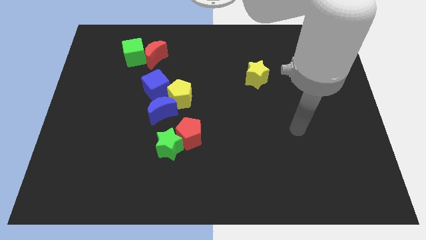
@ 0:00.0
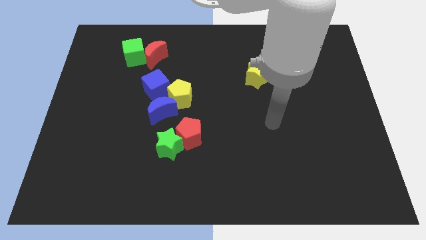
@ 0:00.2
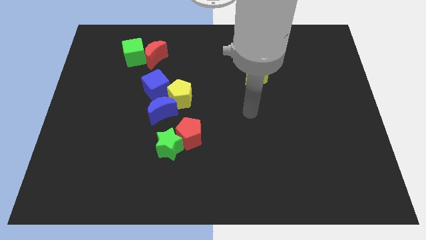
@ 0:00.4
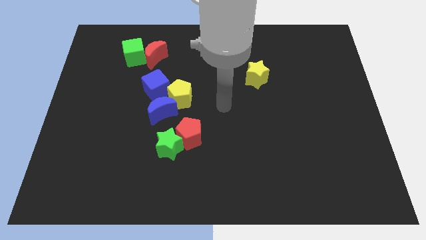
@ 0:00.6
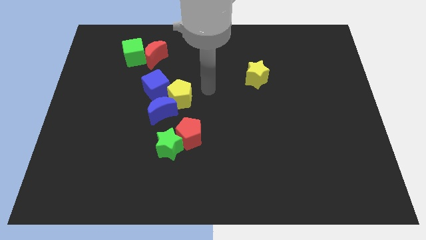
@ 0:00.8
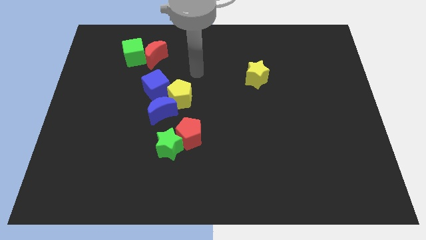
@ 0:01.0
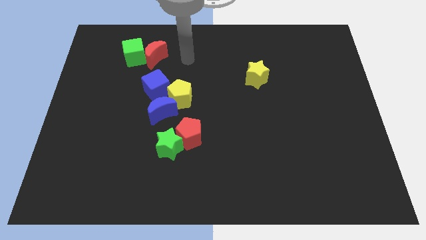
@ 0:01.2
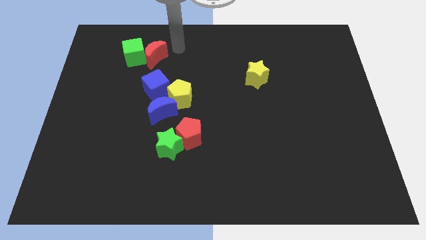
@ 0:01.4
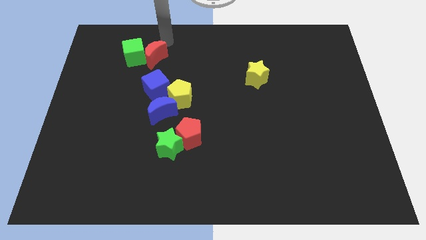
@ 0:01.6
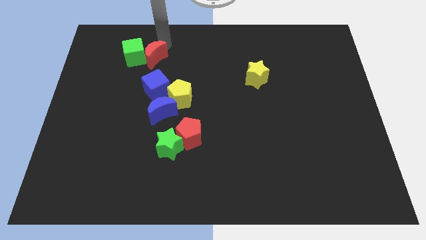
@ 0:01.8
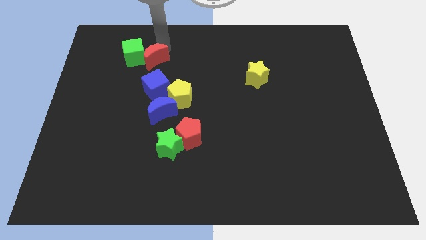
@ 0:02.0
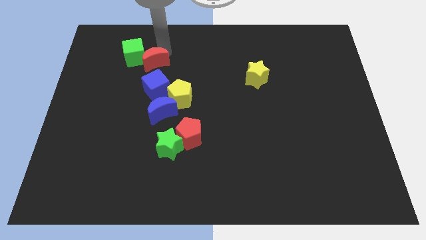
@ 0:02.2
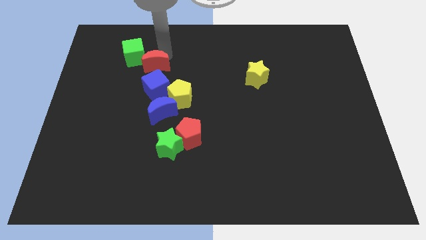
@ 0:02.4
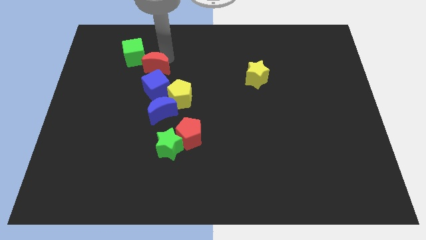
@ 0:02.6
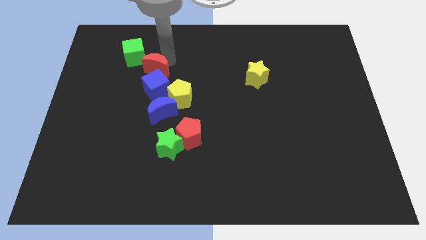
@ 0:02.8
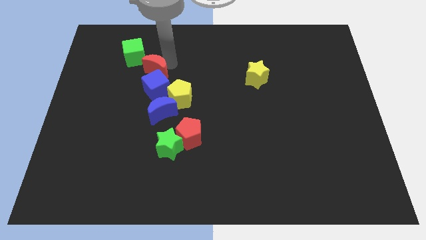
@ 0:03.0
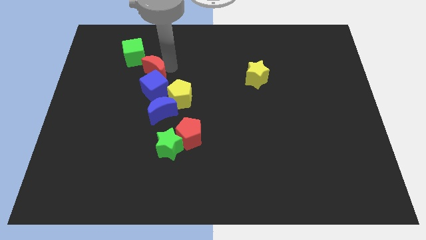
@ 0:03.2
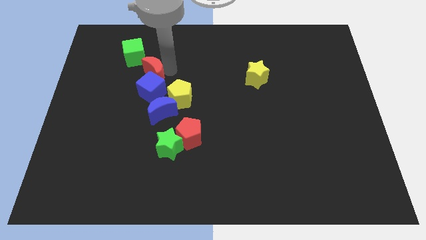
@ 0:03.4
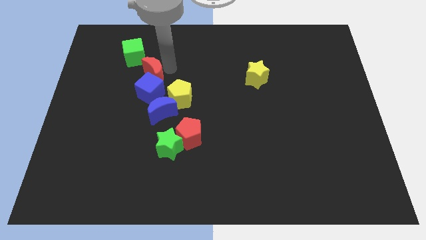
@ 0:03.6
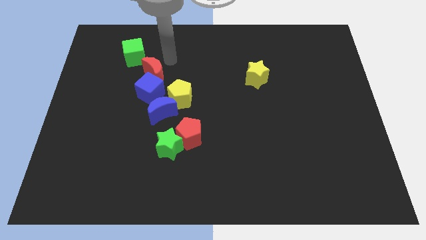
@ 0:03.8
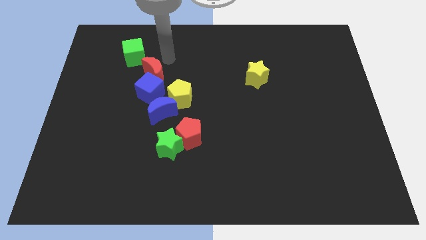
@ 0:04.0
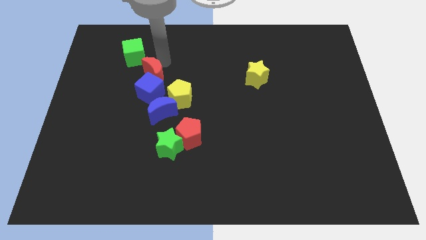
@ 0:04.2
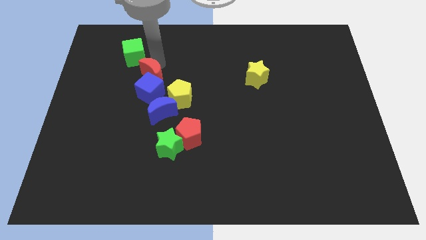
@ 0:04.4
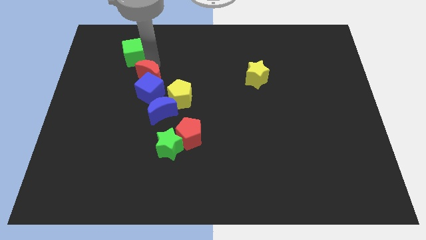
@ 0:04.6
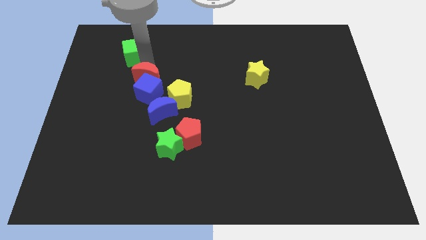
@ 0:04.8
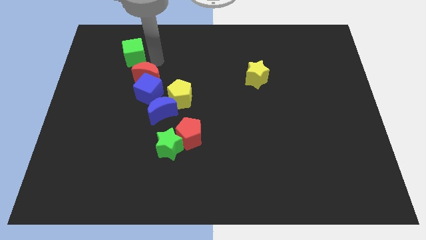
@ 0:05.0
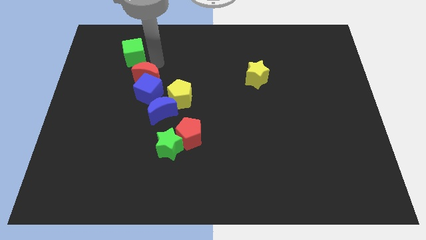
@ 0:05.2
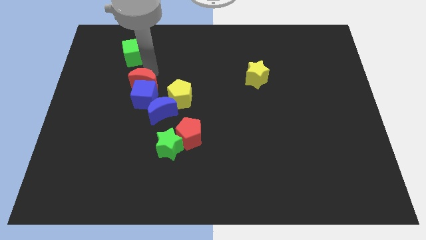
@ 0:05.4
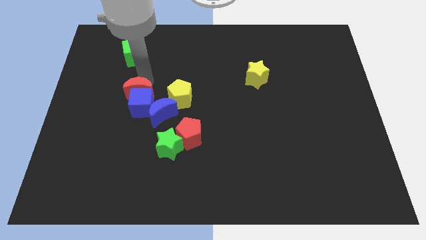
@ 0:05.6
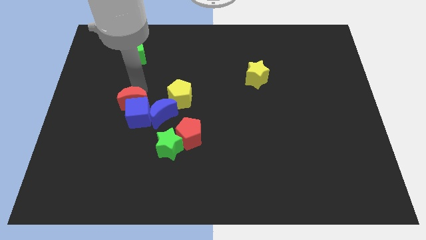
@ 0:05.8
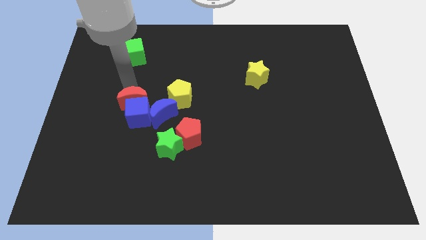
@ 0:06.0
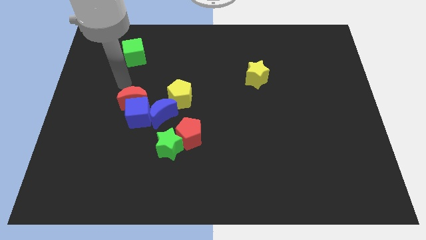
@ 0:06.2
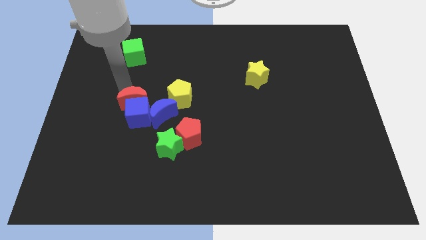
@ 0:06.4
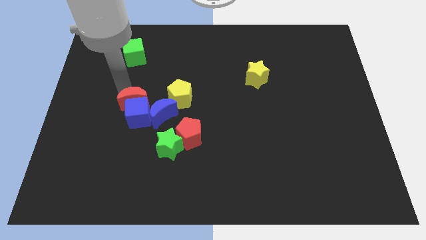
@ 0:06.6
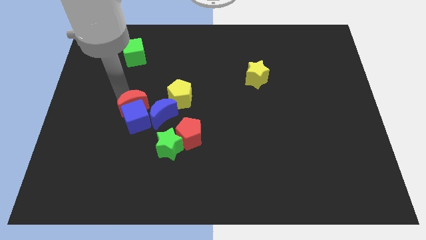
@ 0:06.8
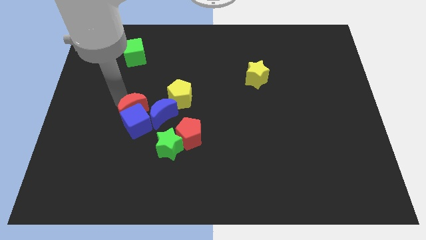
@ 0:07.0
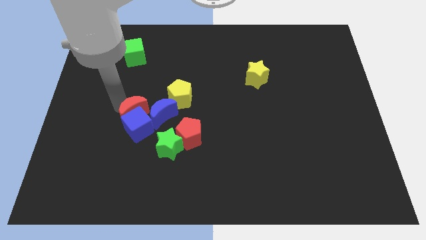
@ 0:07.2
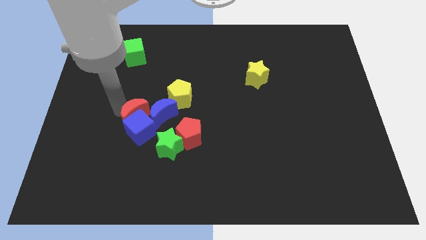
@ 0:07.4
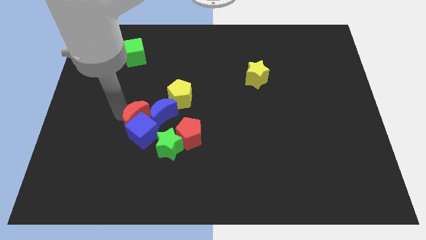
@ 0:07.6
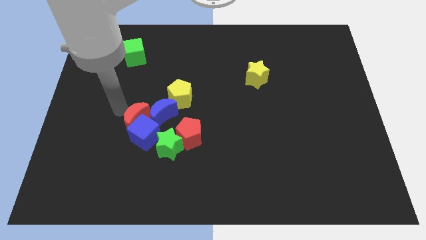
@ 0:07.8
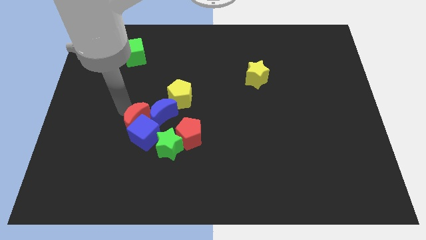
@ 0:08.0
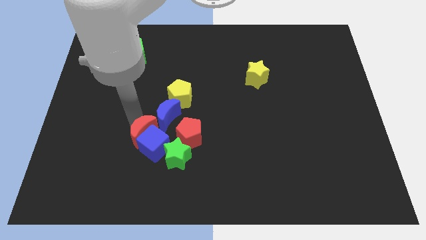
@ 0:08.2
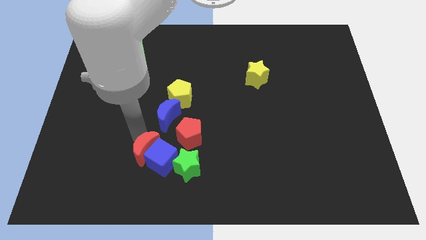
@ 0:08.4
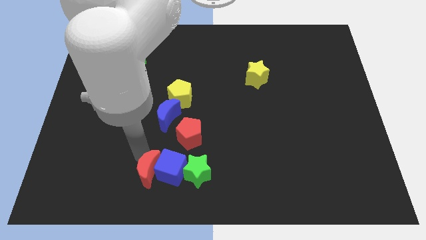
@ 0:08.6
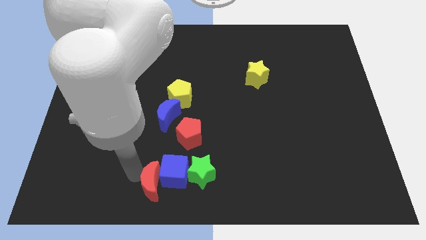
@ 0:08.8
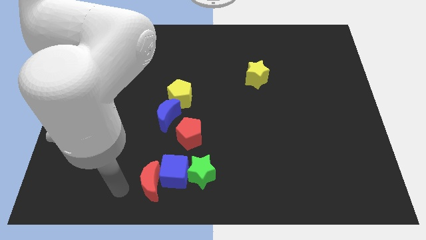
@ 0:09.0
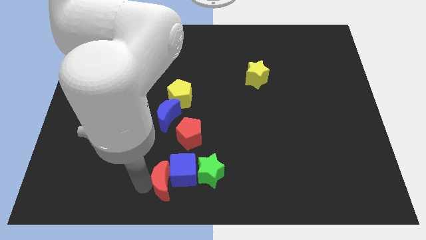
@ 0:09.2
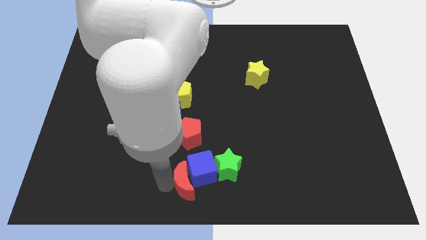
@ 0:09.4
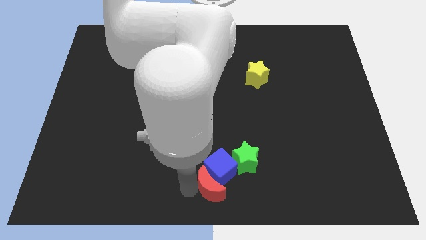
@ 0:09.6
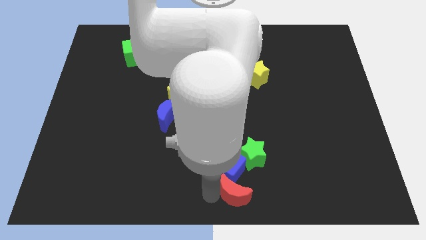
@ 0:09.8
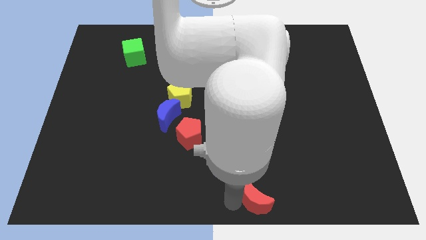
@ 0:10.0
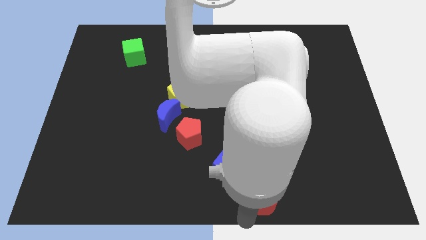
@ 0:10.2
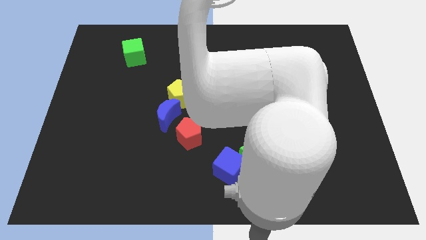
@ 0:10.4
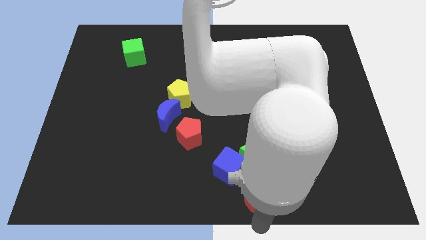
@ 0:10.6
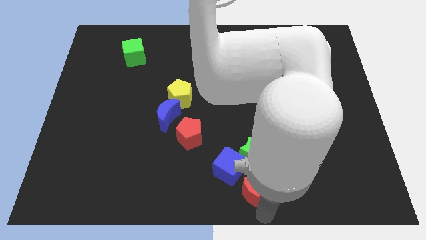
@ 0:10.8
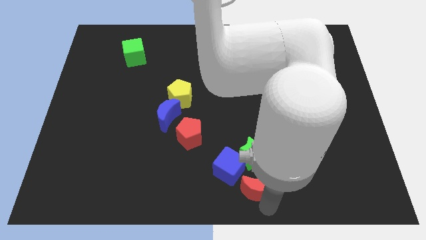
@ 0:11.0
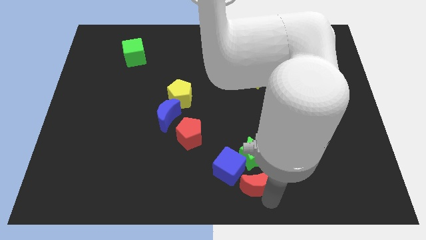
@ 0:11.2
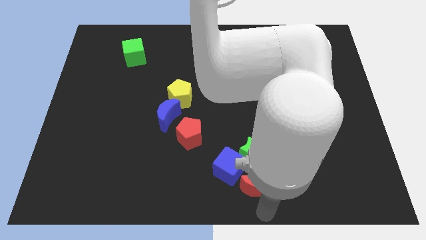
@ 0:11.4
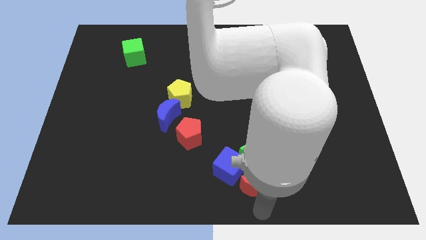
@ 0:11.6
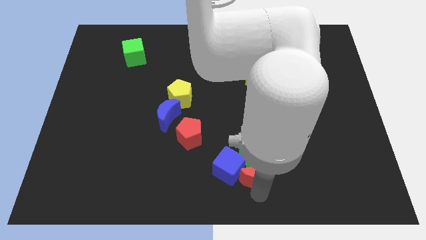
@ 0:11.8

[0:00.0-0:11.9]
put the red moon next to the green star

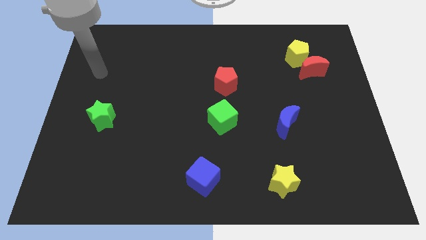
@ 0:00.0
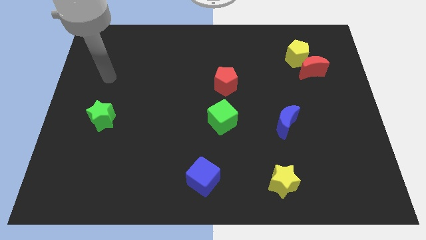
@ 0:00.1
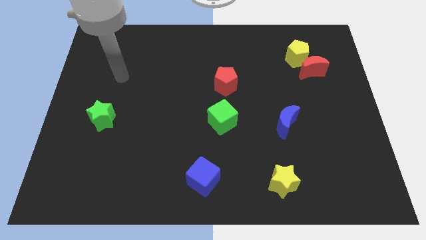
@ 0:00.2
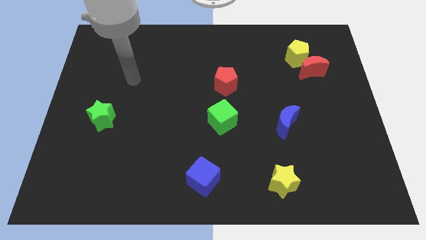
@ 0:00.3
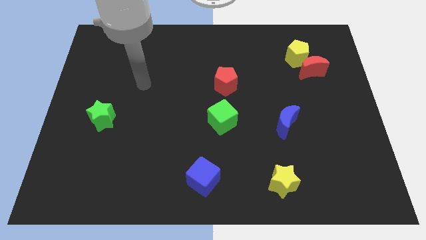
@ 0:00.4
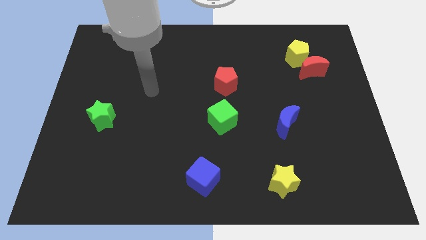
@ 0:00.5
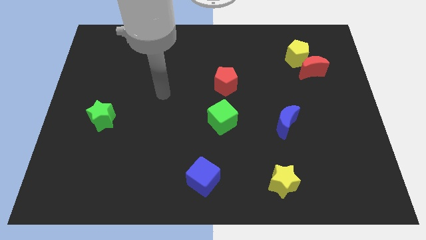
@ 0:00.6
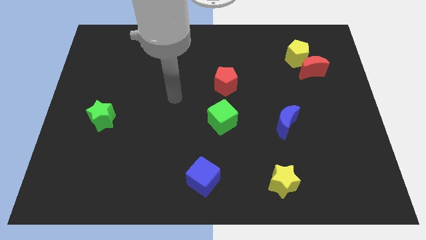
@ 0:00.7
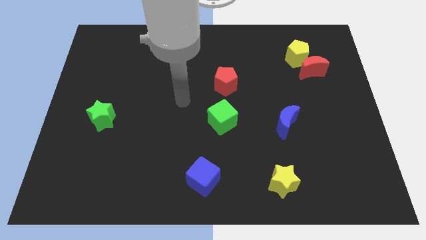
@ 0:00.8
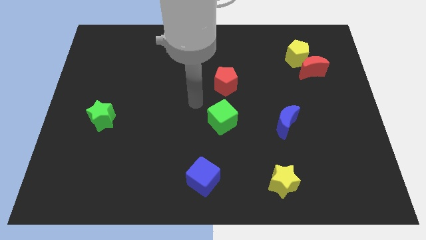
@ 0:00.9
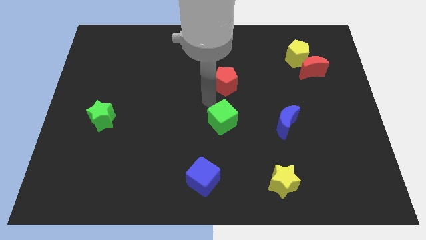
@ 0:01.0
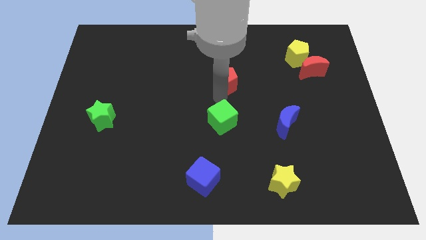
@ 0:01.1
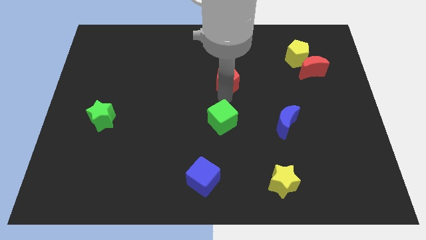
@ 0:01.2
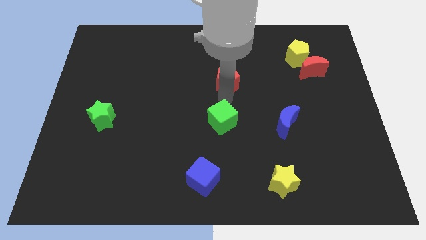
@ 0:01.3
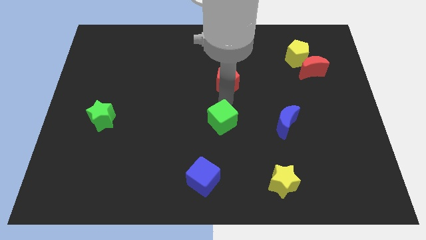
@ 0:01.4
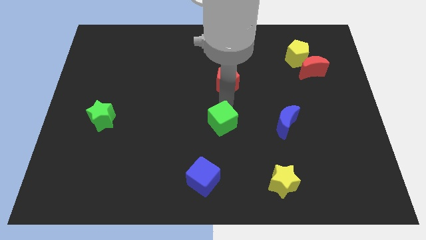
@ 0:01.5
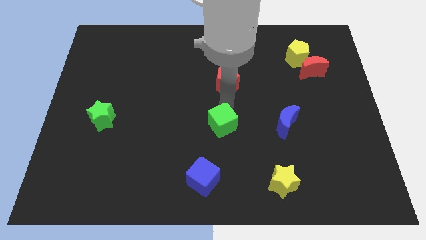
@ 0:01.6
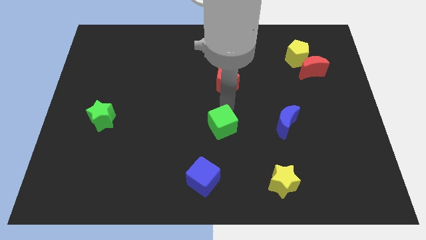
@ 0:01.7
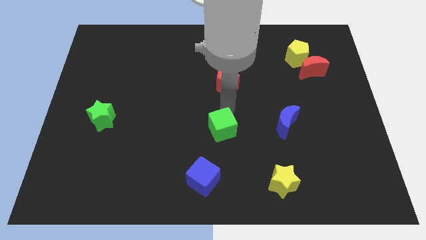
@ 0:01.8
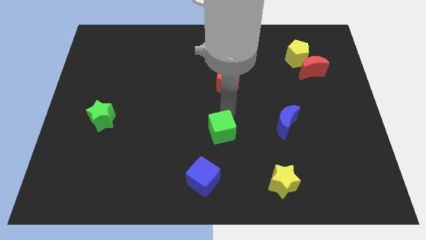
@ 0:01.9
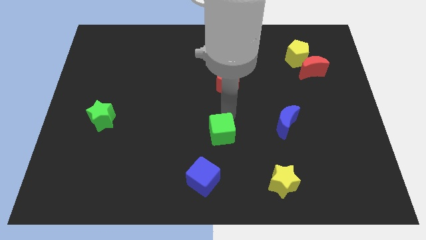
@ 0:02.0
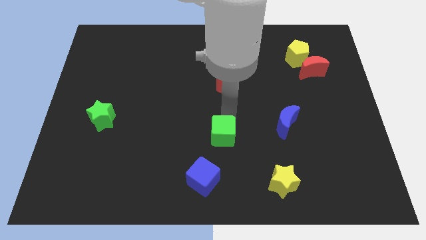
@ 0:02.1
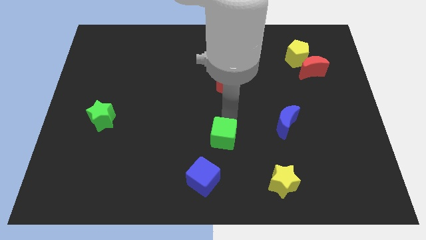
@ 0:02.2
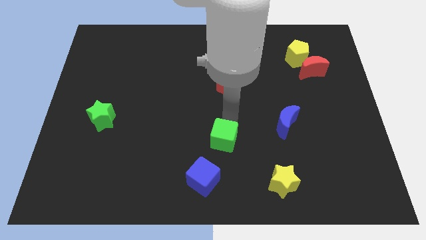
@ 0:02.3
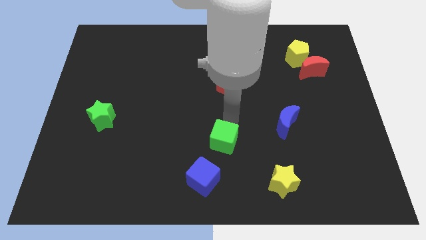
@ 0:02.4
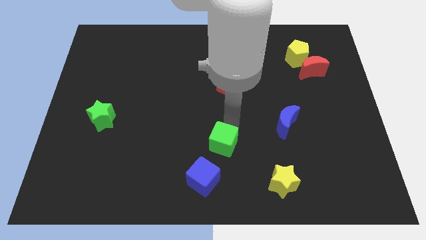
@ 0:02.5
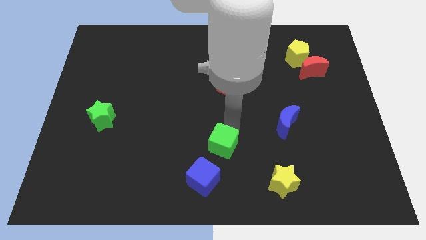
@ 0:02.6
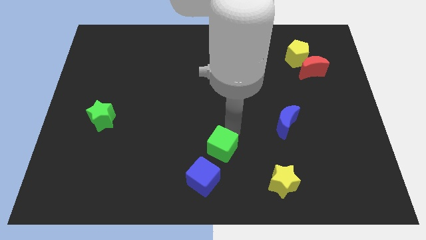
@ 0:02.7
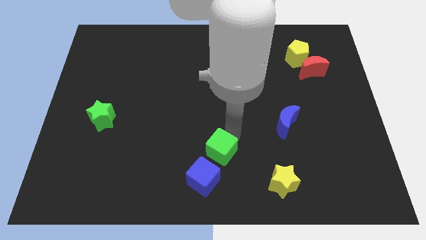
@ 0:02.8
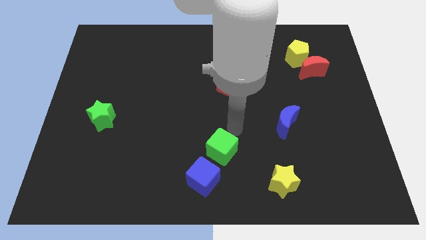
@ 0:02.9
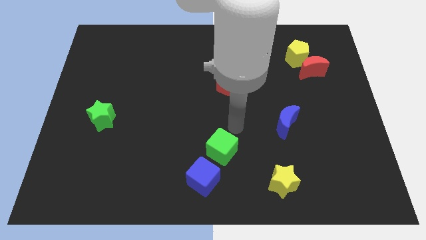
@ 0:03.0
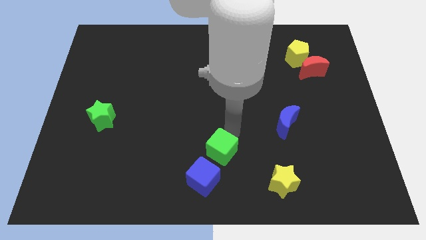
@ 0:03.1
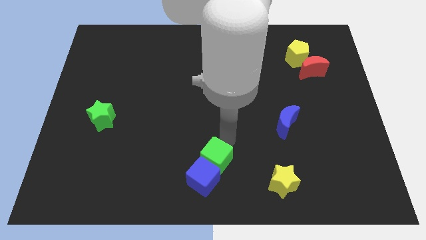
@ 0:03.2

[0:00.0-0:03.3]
slide the green cube towards the blue cube
